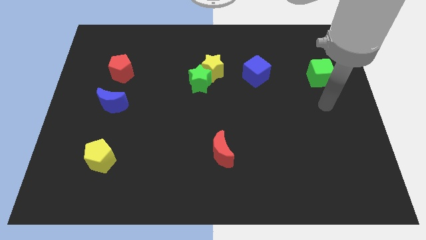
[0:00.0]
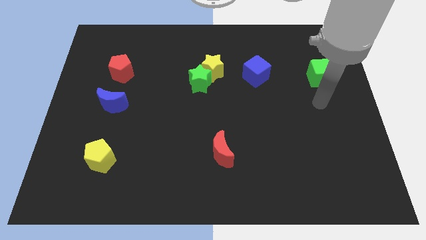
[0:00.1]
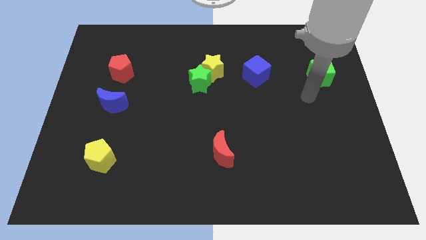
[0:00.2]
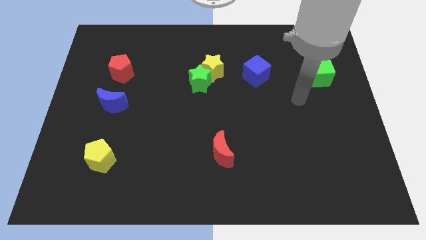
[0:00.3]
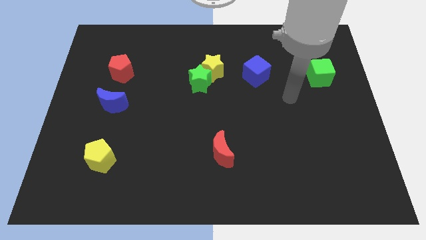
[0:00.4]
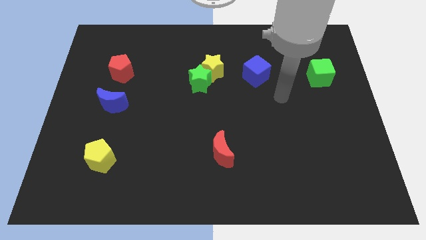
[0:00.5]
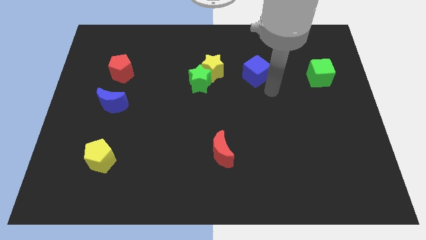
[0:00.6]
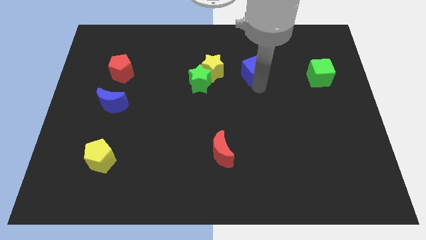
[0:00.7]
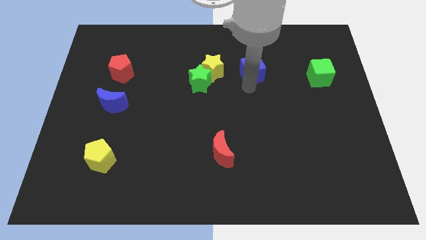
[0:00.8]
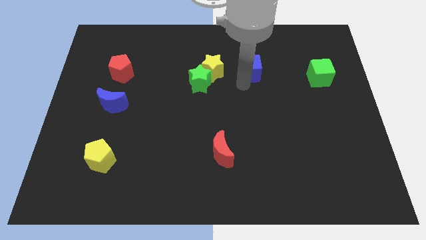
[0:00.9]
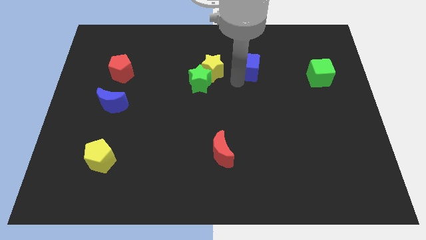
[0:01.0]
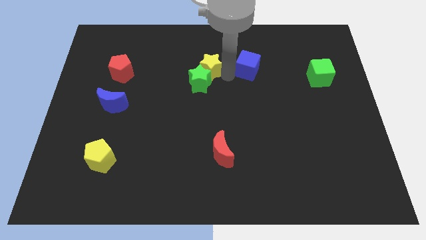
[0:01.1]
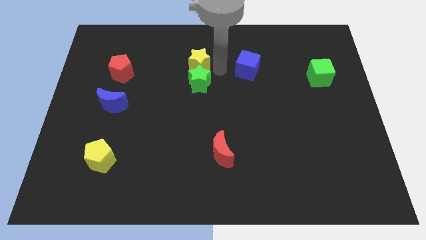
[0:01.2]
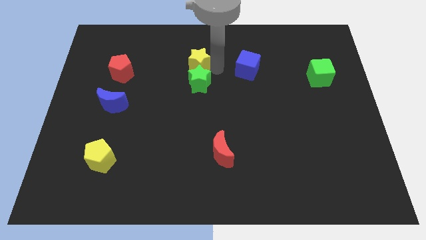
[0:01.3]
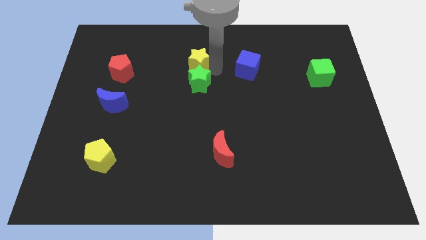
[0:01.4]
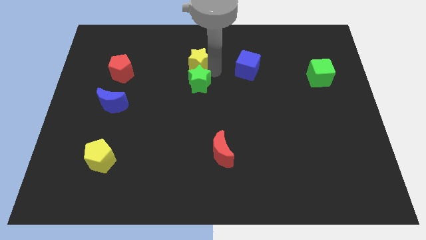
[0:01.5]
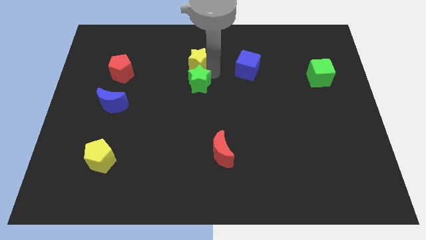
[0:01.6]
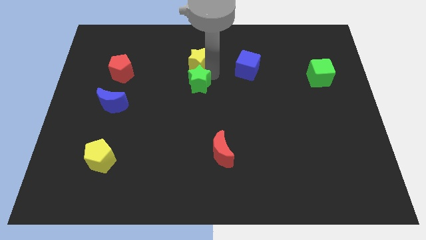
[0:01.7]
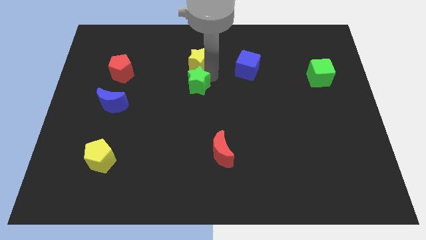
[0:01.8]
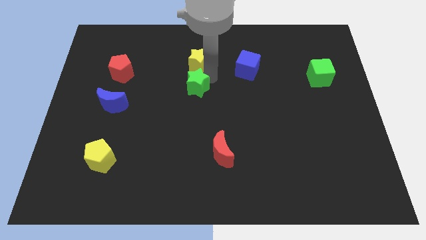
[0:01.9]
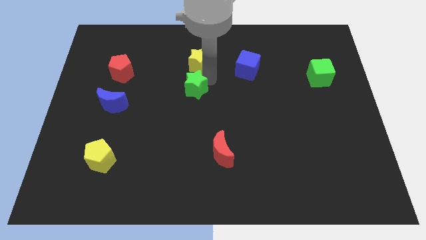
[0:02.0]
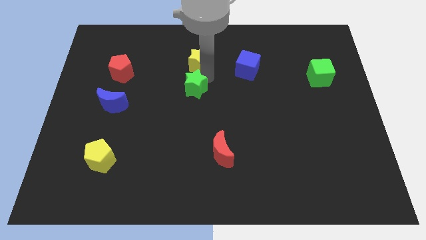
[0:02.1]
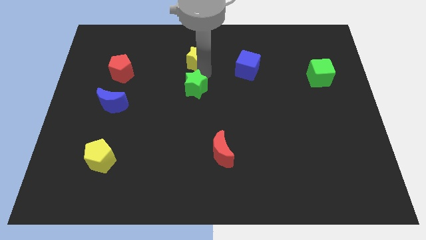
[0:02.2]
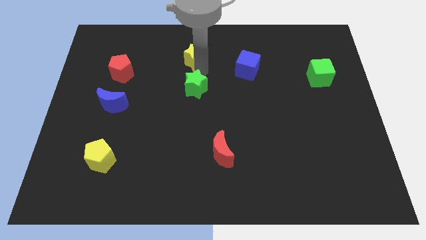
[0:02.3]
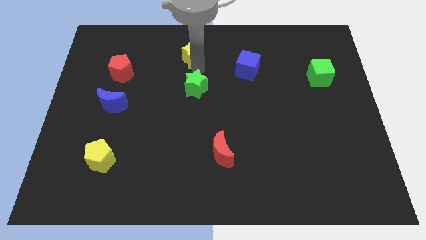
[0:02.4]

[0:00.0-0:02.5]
separate the green star from the yellow star

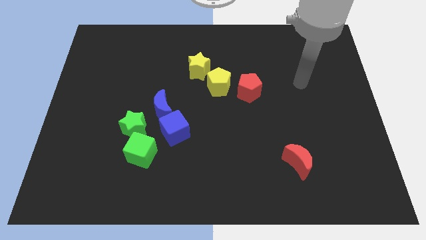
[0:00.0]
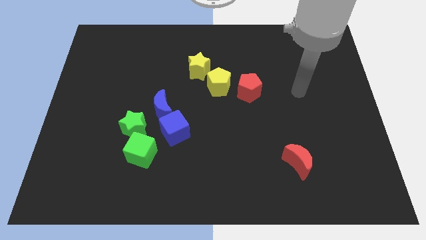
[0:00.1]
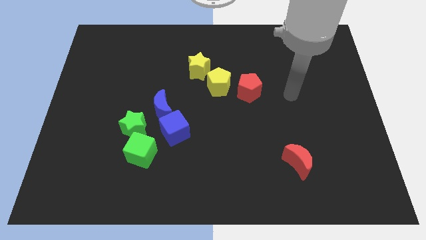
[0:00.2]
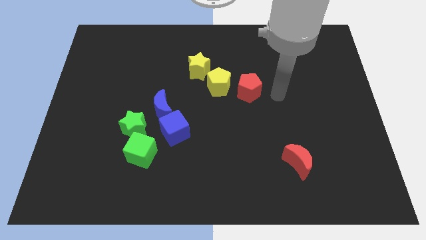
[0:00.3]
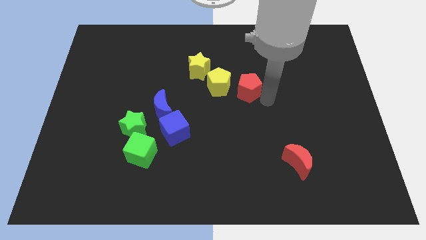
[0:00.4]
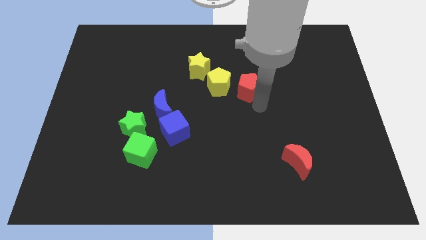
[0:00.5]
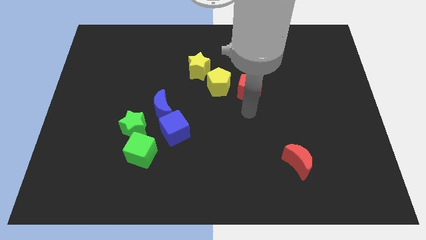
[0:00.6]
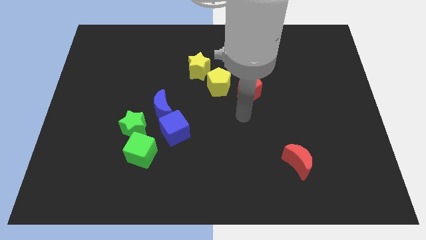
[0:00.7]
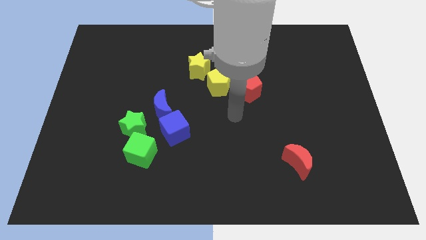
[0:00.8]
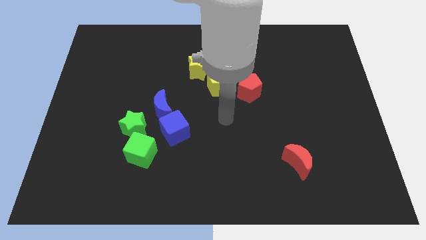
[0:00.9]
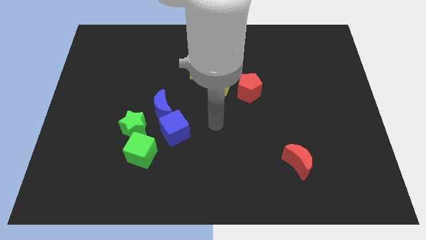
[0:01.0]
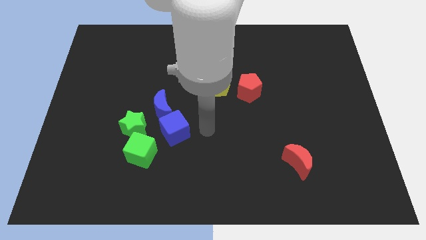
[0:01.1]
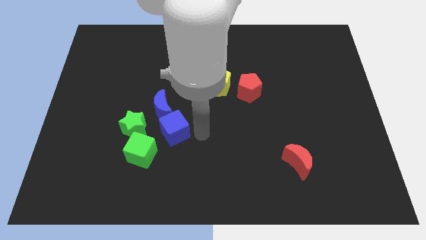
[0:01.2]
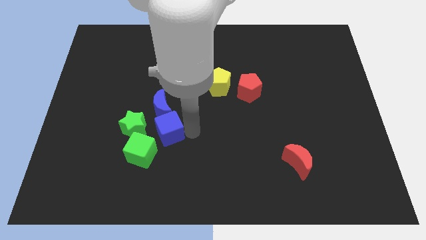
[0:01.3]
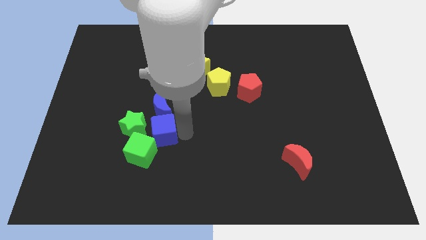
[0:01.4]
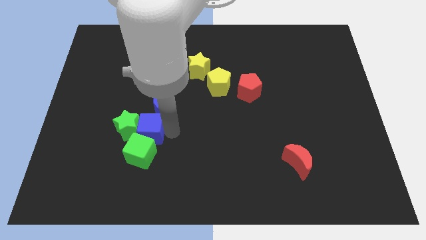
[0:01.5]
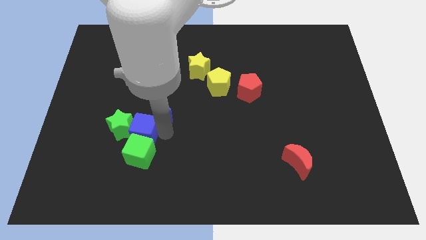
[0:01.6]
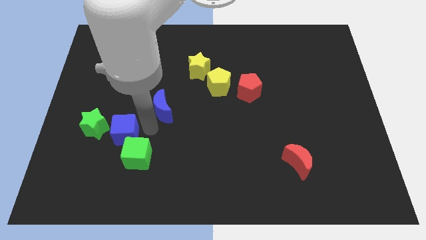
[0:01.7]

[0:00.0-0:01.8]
pull the blue moon apart from the blue cube and green star

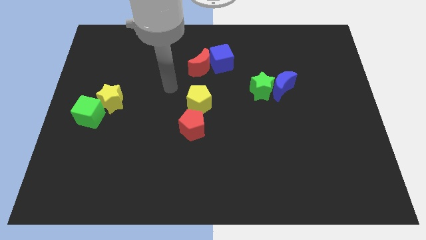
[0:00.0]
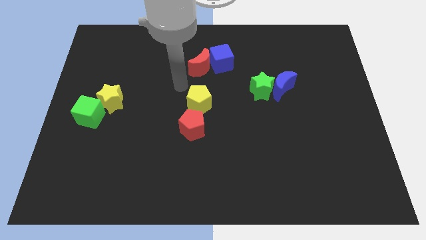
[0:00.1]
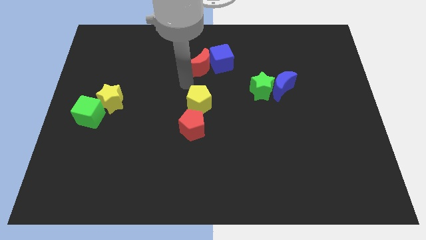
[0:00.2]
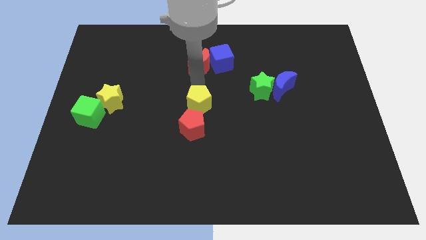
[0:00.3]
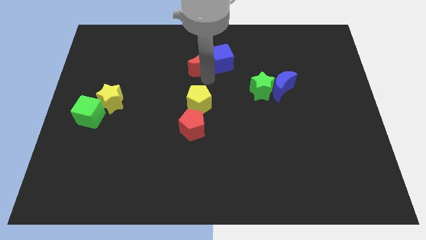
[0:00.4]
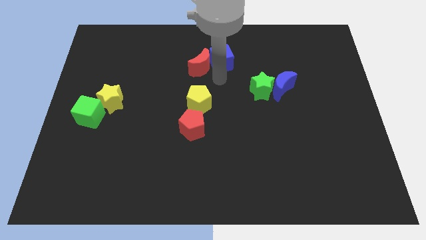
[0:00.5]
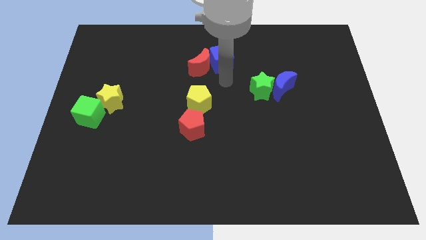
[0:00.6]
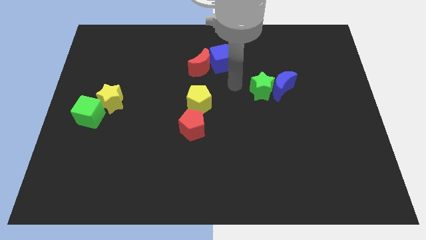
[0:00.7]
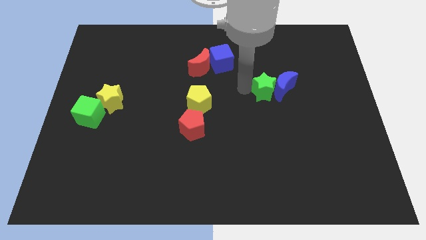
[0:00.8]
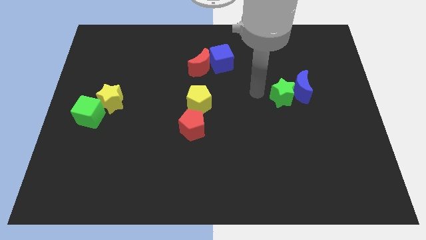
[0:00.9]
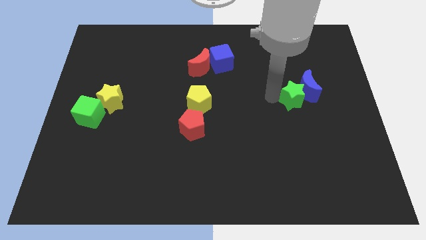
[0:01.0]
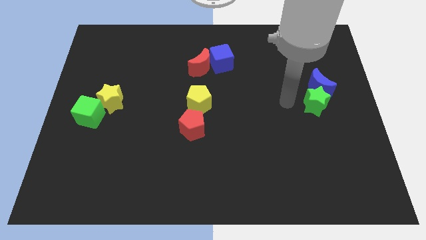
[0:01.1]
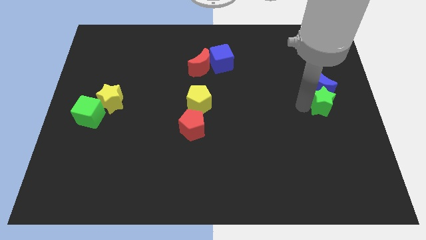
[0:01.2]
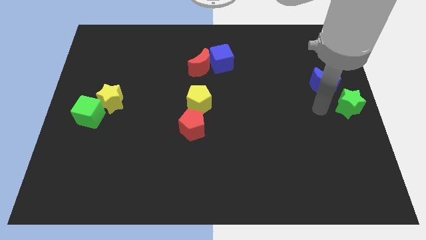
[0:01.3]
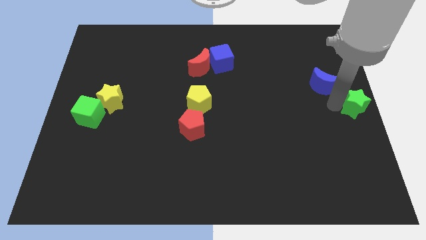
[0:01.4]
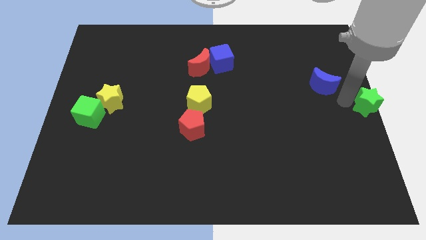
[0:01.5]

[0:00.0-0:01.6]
pull the blue moon apart from the green star

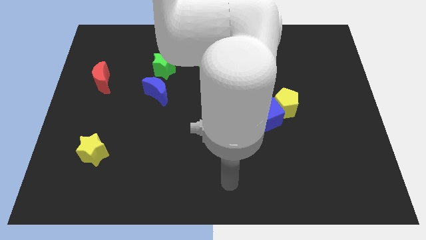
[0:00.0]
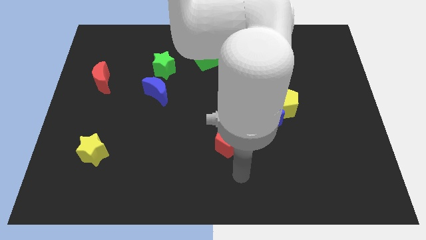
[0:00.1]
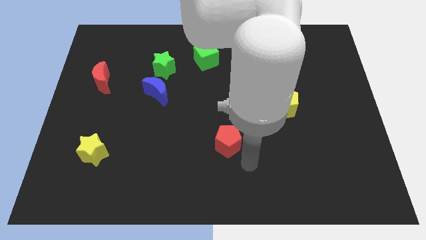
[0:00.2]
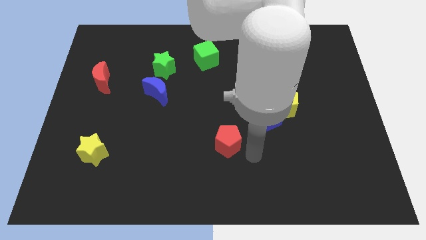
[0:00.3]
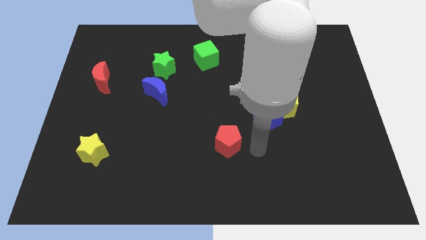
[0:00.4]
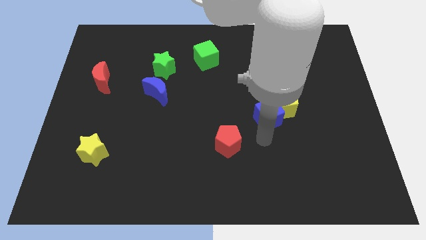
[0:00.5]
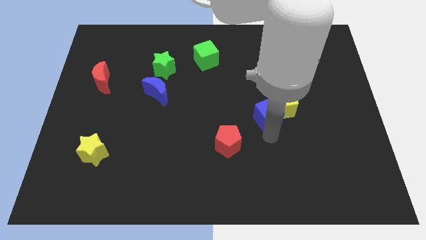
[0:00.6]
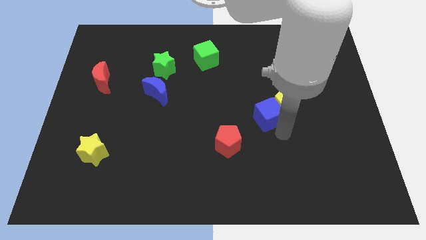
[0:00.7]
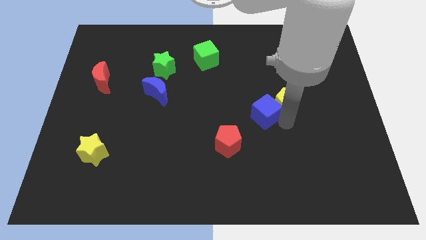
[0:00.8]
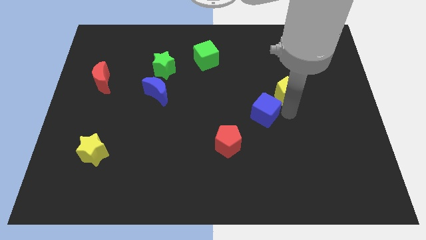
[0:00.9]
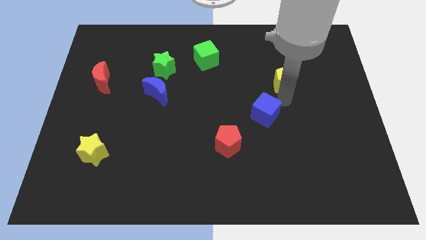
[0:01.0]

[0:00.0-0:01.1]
move the blue cube away from the yellow pentagon

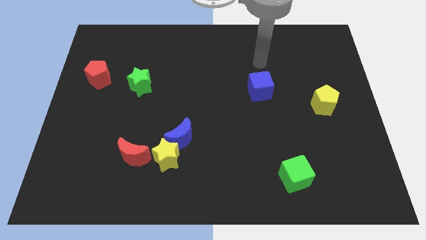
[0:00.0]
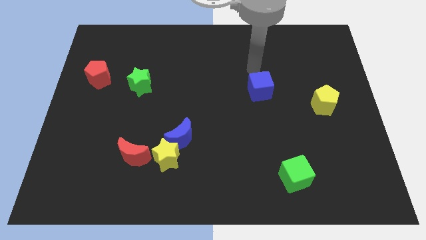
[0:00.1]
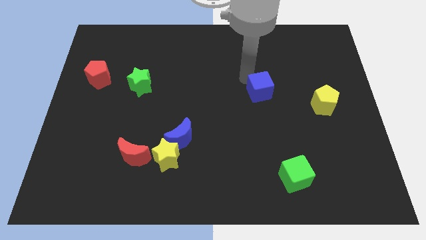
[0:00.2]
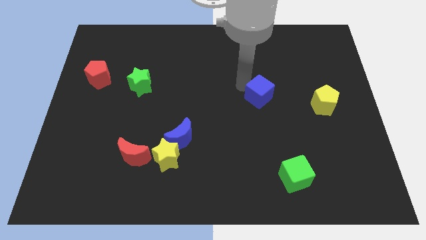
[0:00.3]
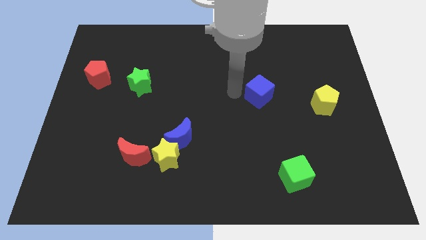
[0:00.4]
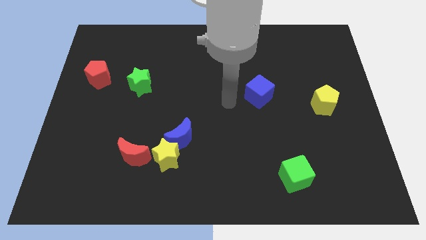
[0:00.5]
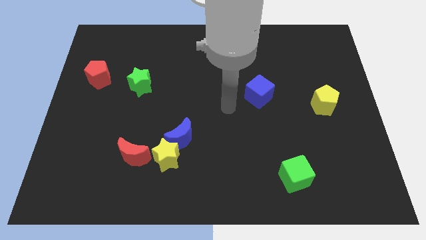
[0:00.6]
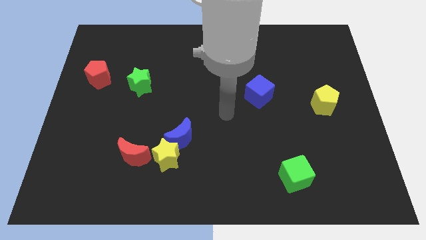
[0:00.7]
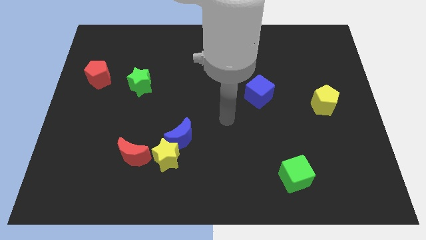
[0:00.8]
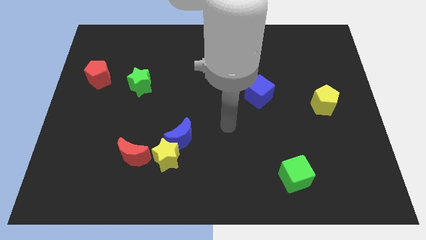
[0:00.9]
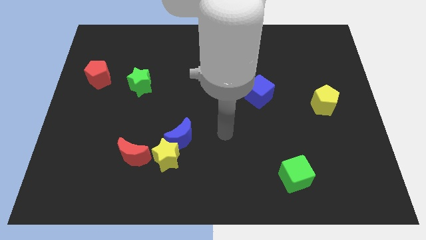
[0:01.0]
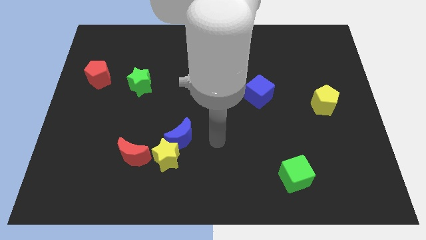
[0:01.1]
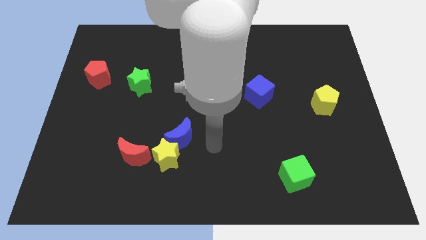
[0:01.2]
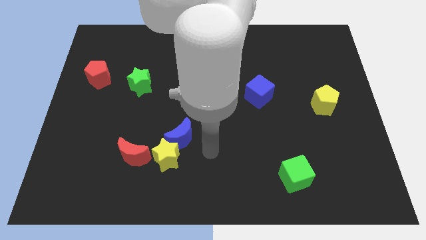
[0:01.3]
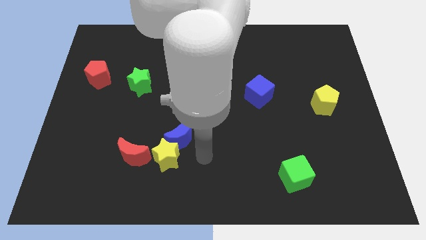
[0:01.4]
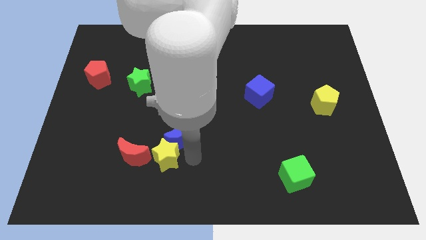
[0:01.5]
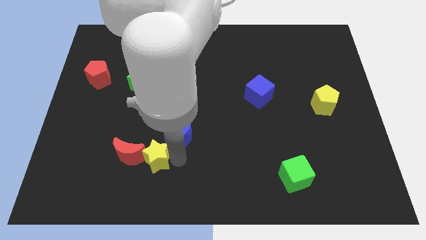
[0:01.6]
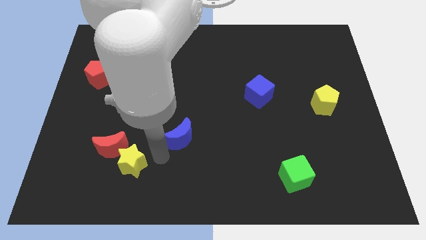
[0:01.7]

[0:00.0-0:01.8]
pull the blue moon apart from the yellow star

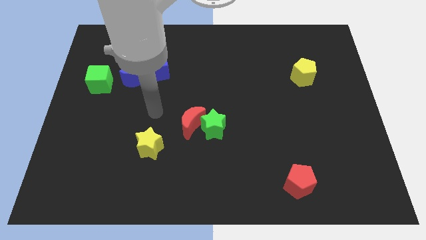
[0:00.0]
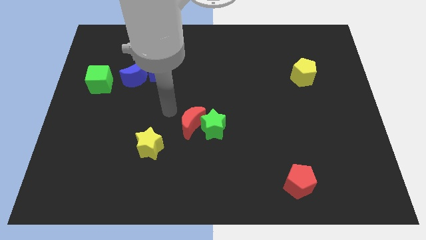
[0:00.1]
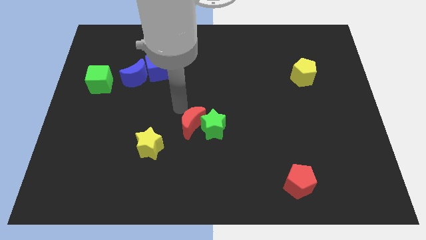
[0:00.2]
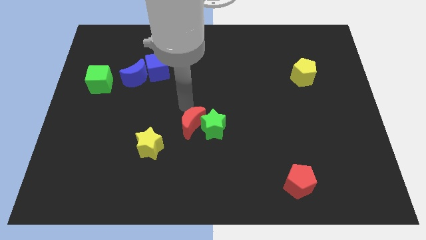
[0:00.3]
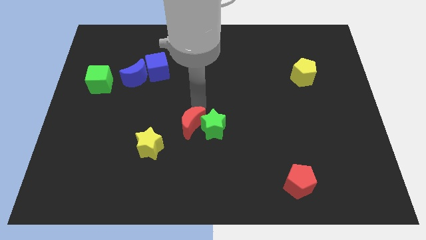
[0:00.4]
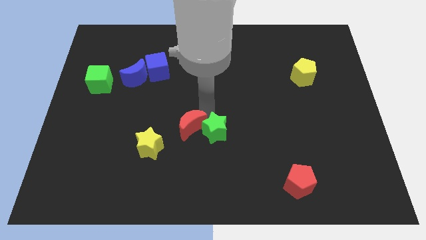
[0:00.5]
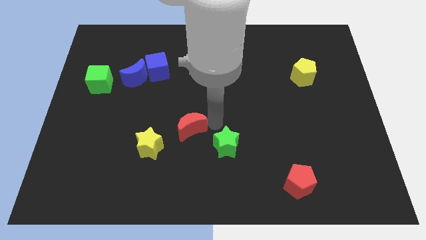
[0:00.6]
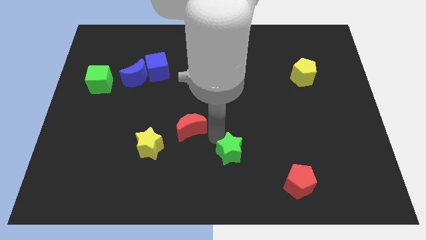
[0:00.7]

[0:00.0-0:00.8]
pull the red moon apart from the green star
